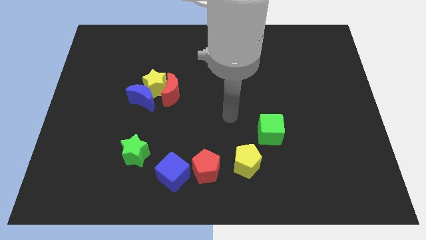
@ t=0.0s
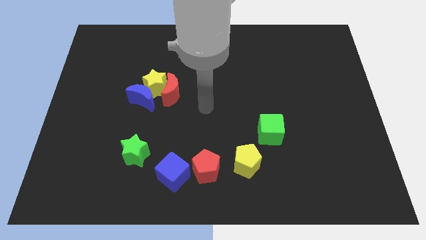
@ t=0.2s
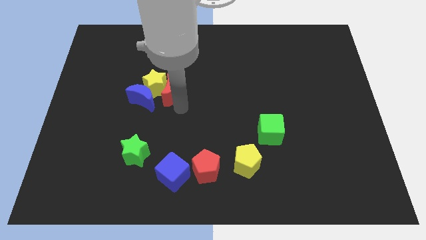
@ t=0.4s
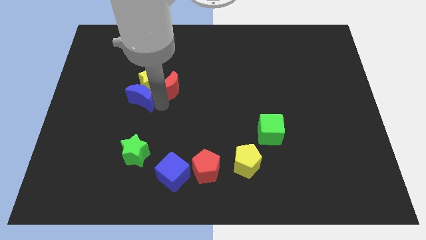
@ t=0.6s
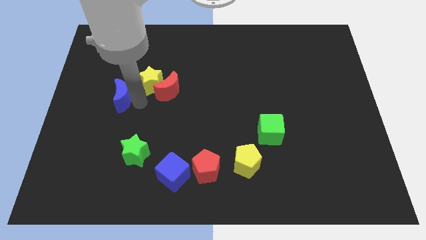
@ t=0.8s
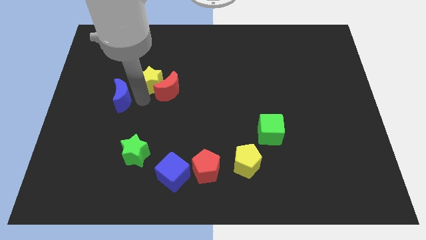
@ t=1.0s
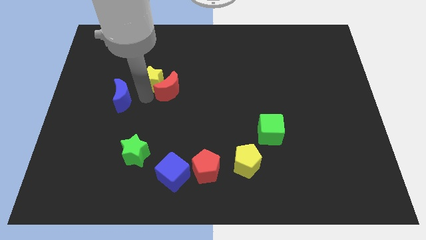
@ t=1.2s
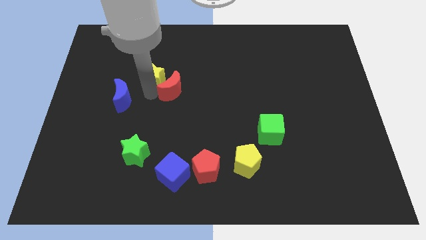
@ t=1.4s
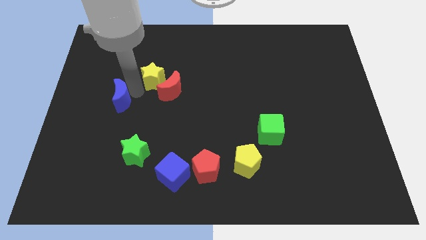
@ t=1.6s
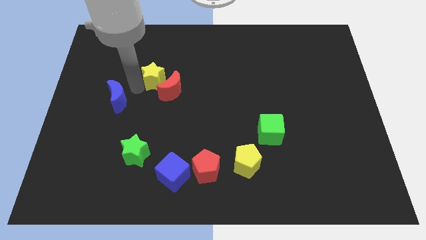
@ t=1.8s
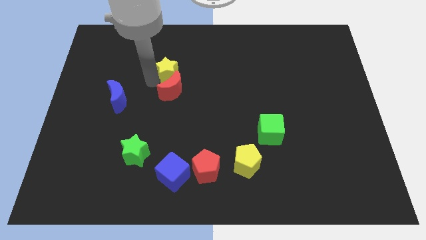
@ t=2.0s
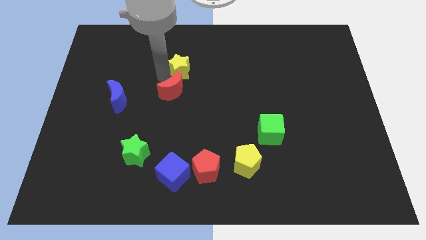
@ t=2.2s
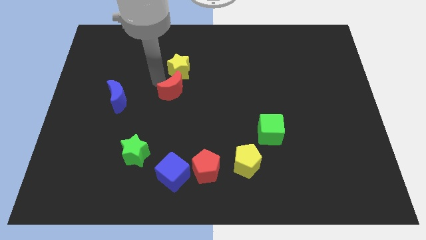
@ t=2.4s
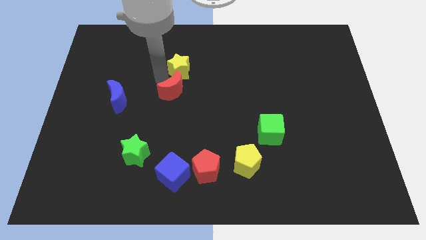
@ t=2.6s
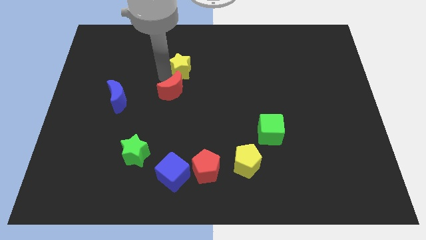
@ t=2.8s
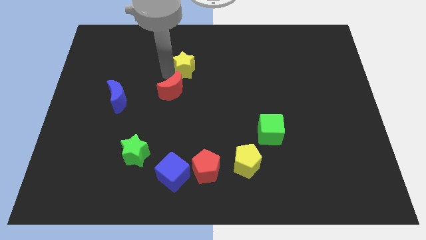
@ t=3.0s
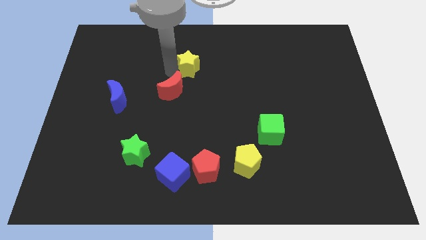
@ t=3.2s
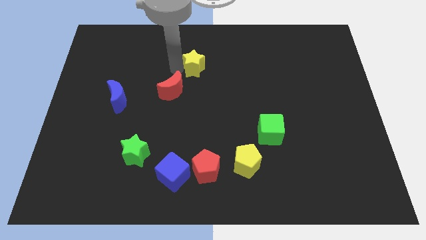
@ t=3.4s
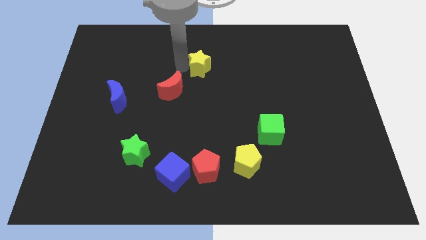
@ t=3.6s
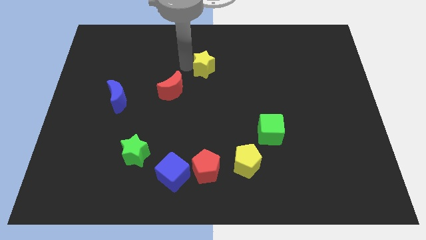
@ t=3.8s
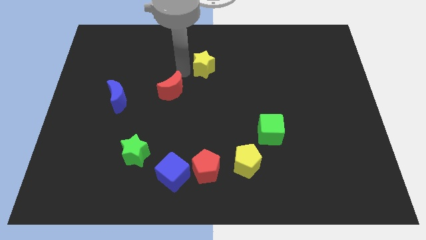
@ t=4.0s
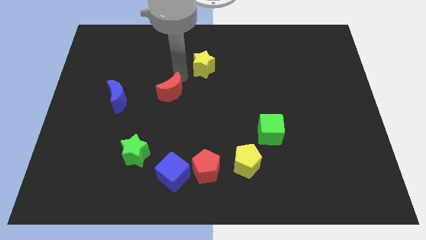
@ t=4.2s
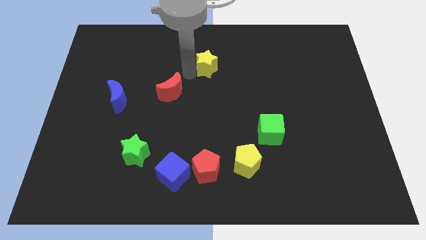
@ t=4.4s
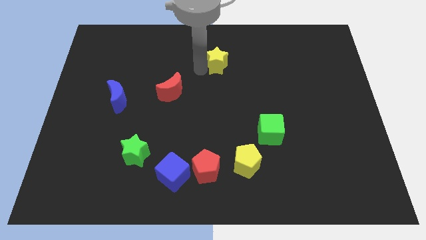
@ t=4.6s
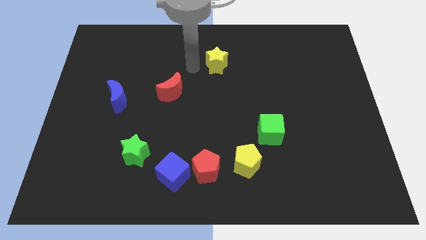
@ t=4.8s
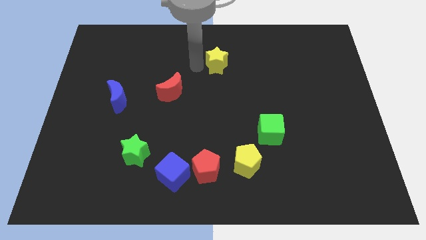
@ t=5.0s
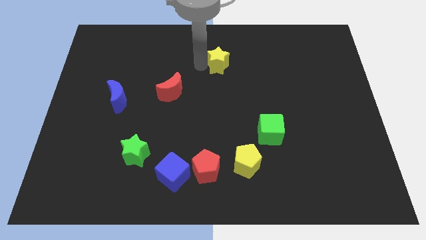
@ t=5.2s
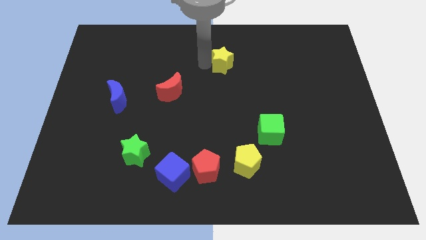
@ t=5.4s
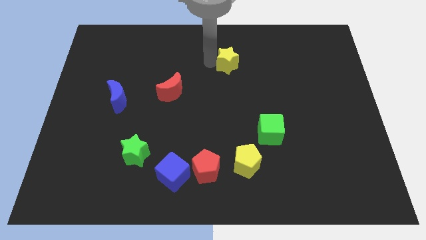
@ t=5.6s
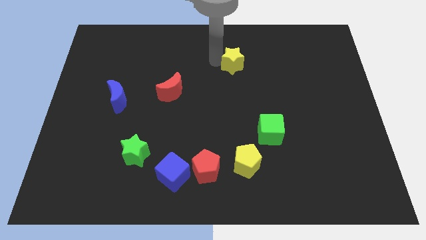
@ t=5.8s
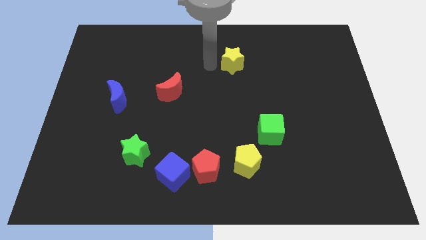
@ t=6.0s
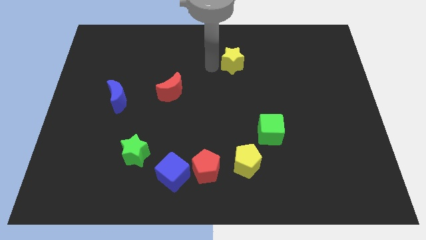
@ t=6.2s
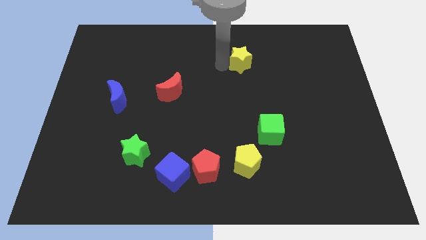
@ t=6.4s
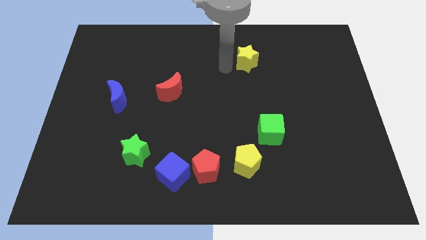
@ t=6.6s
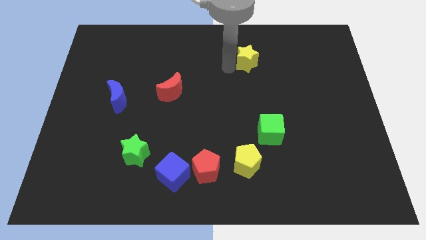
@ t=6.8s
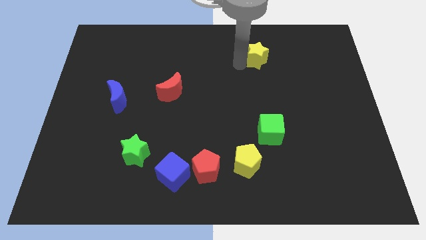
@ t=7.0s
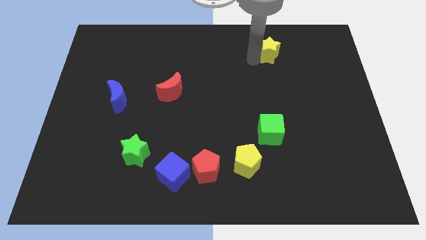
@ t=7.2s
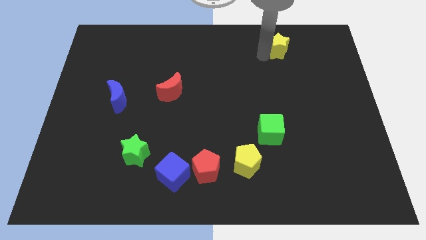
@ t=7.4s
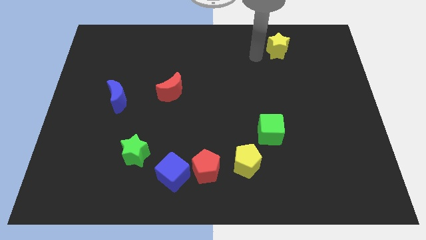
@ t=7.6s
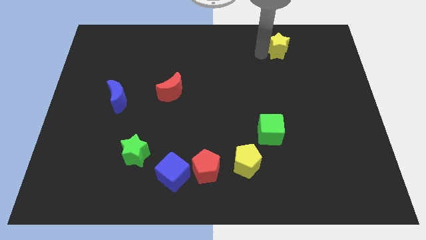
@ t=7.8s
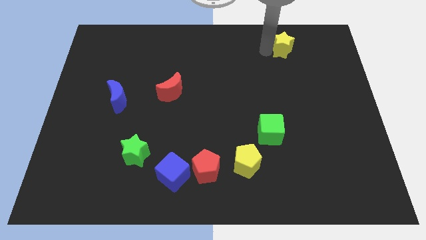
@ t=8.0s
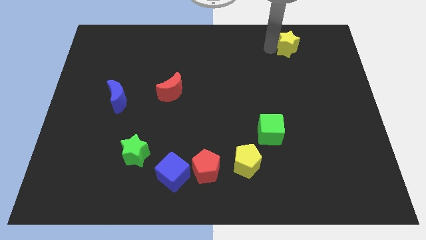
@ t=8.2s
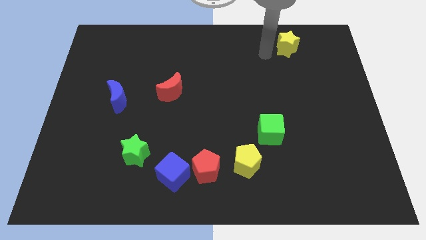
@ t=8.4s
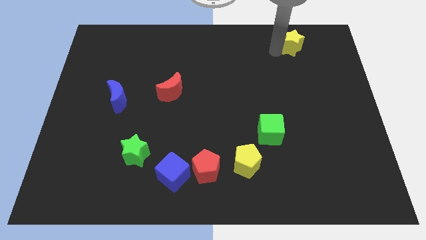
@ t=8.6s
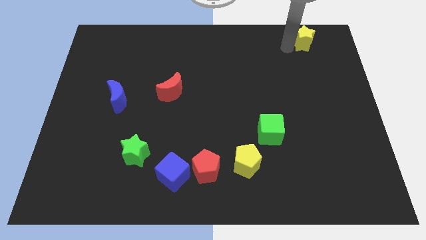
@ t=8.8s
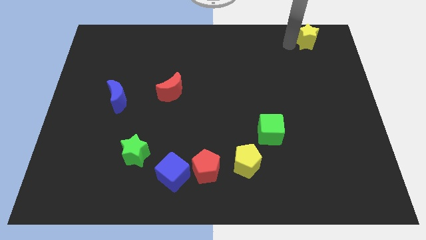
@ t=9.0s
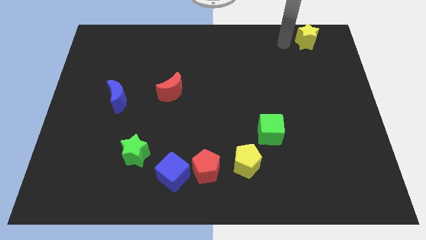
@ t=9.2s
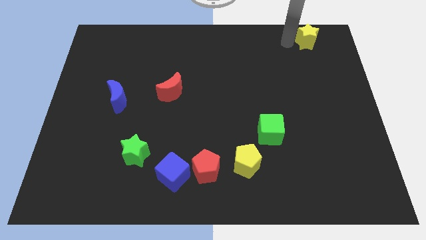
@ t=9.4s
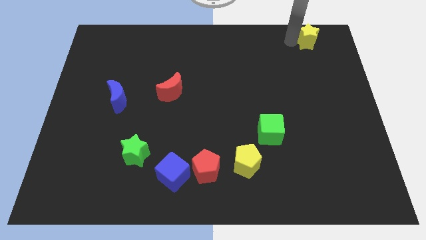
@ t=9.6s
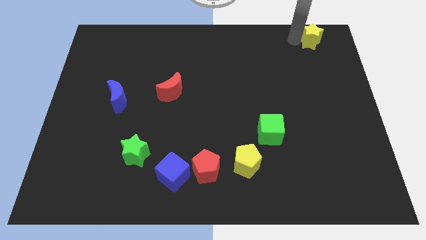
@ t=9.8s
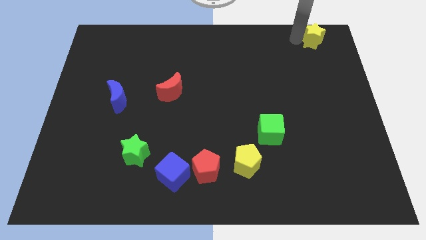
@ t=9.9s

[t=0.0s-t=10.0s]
slide the yellow star to the top right

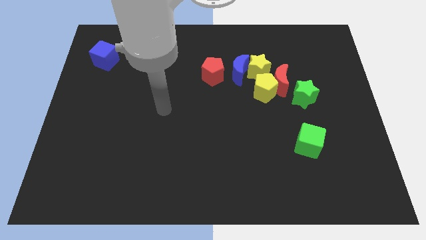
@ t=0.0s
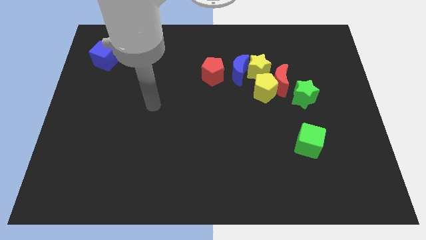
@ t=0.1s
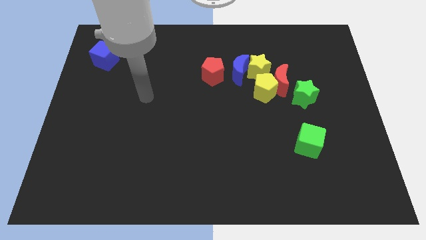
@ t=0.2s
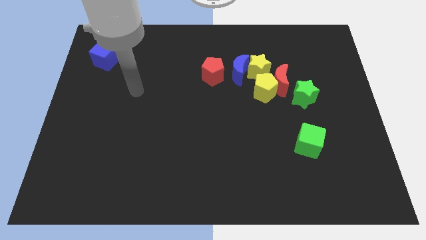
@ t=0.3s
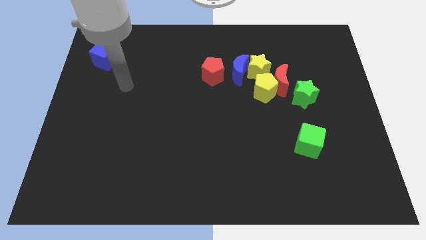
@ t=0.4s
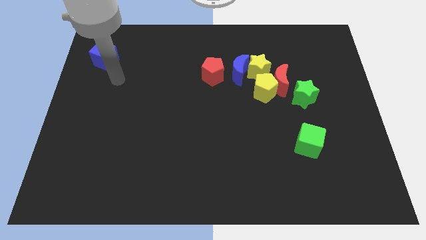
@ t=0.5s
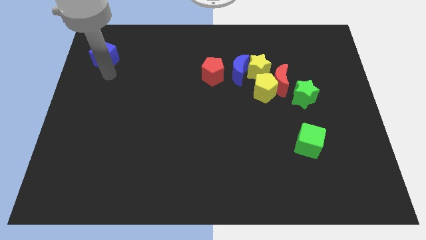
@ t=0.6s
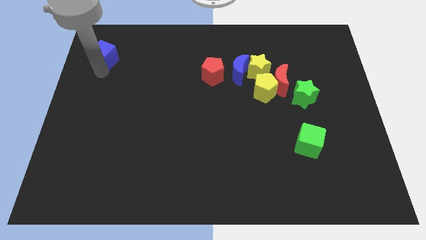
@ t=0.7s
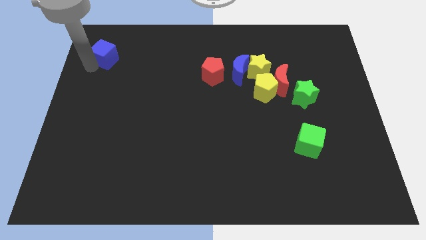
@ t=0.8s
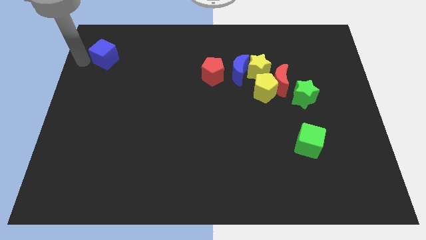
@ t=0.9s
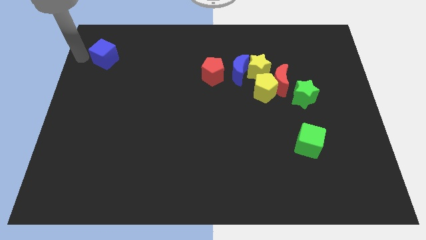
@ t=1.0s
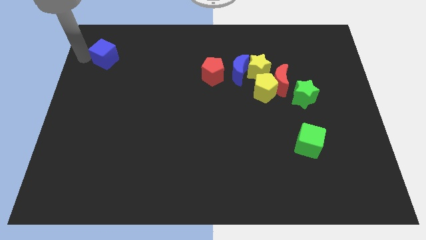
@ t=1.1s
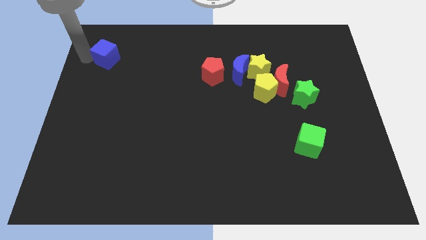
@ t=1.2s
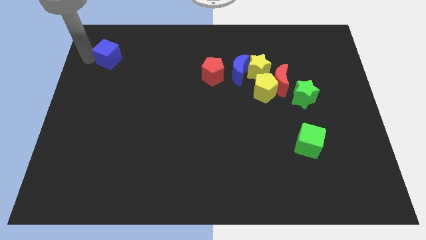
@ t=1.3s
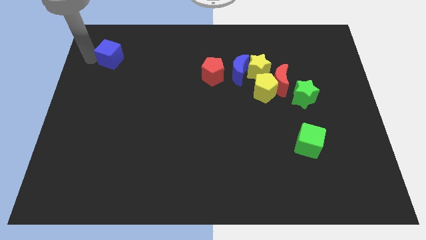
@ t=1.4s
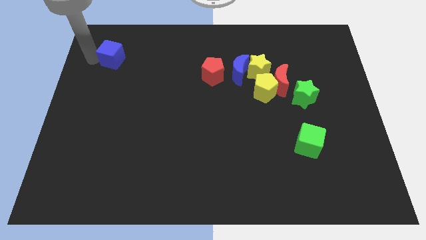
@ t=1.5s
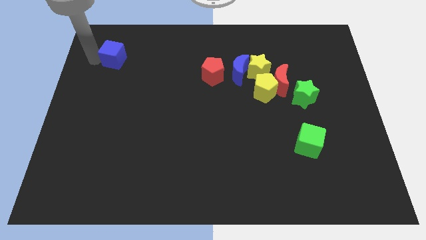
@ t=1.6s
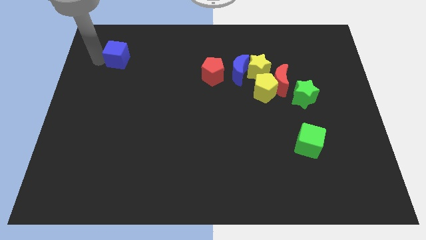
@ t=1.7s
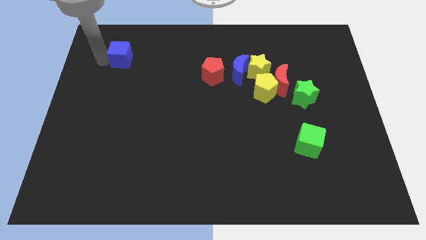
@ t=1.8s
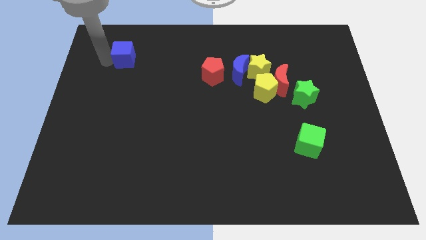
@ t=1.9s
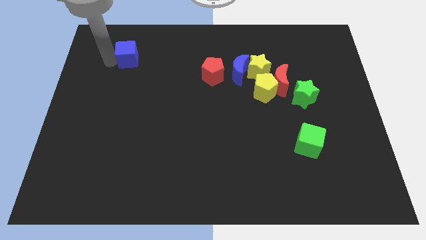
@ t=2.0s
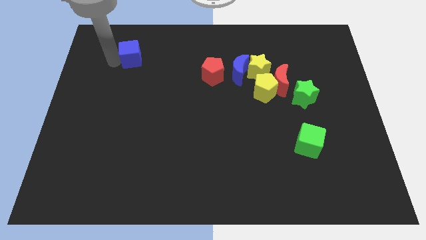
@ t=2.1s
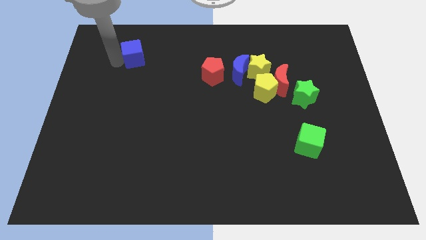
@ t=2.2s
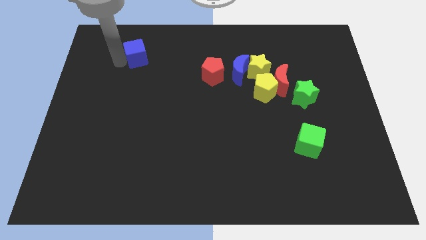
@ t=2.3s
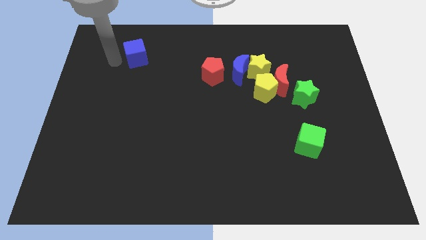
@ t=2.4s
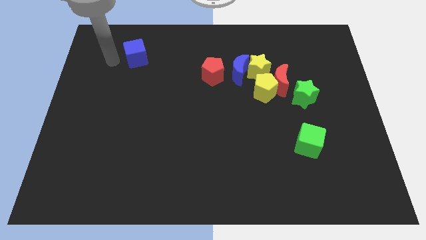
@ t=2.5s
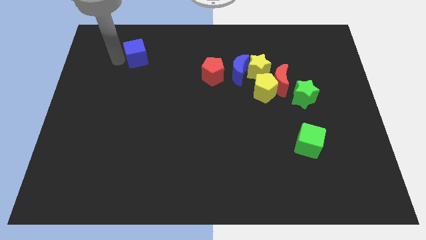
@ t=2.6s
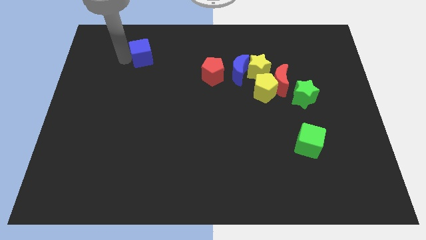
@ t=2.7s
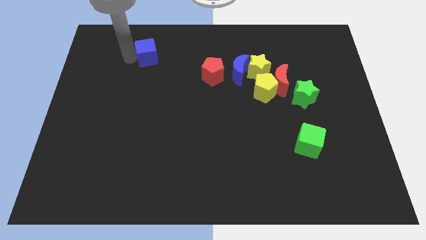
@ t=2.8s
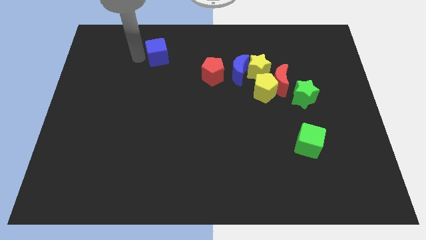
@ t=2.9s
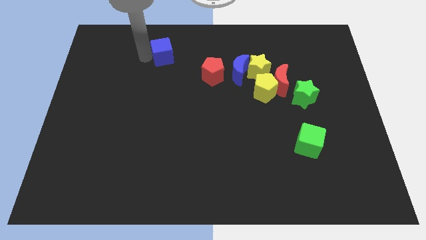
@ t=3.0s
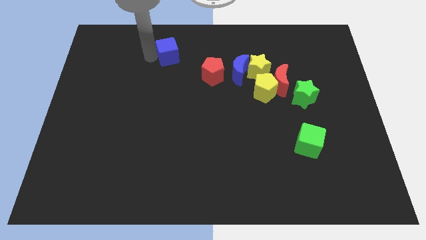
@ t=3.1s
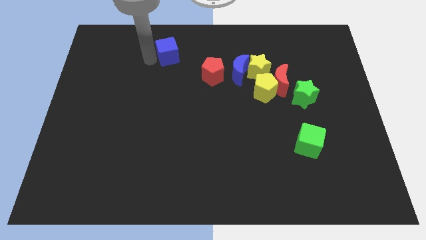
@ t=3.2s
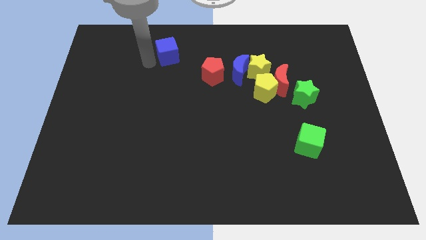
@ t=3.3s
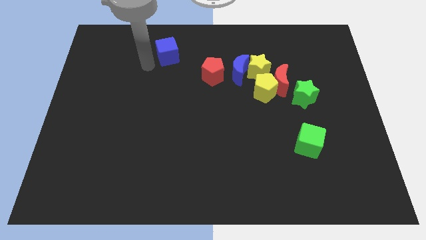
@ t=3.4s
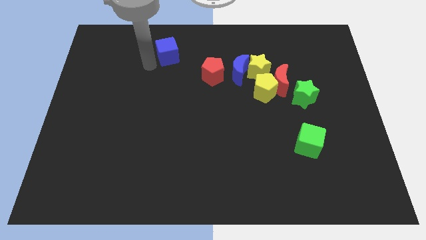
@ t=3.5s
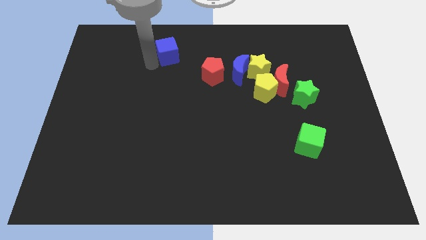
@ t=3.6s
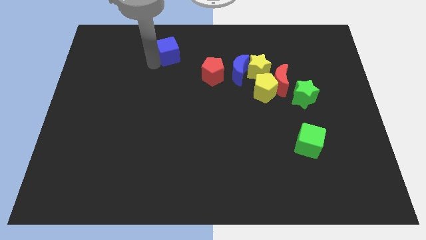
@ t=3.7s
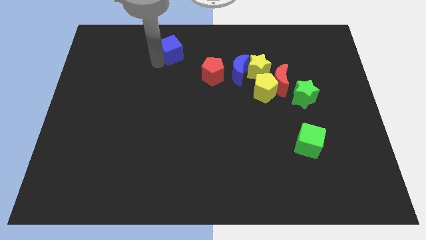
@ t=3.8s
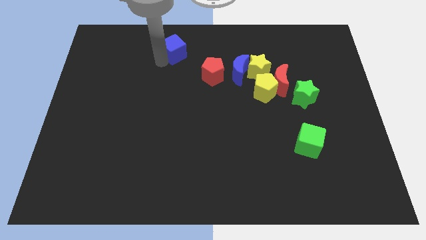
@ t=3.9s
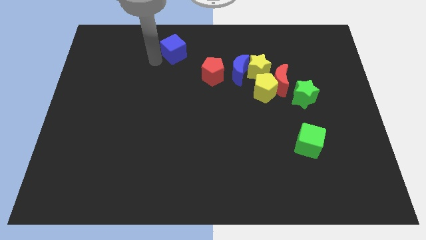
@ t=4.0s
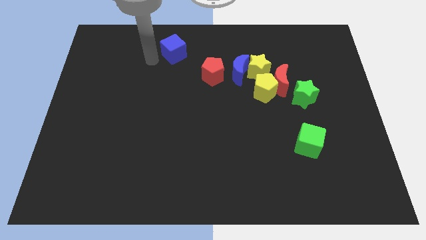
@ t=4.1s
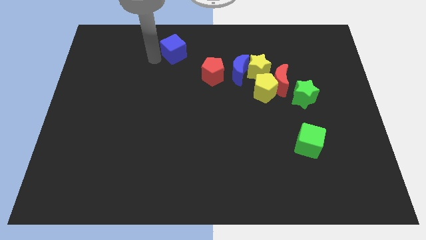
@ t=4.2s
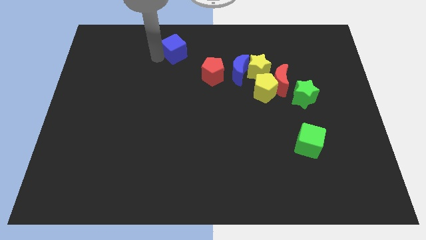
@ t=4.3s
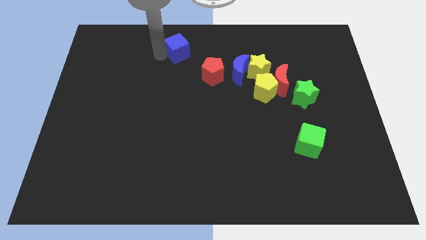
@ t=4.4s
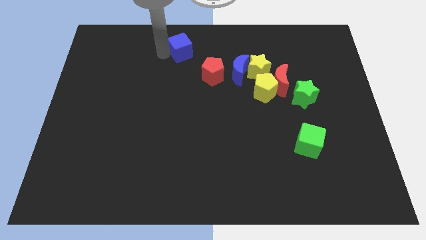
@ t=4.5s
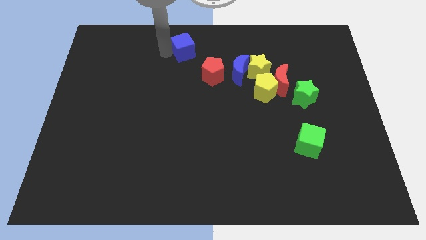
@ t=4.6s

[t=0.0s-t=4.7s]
move the blue cube to the top side
